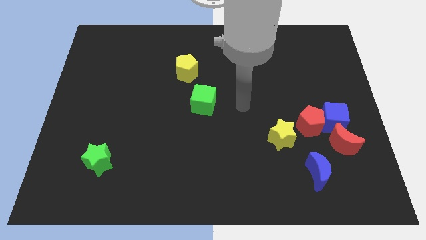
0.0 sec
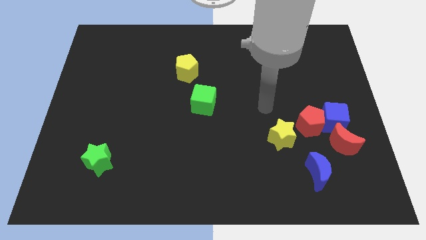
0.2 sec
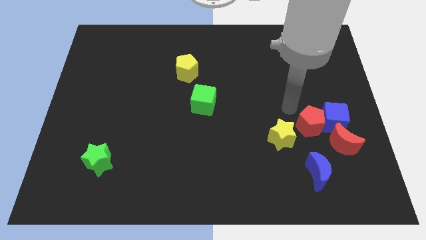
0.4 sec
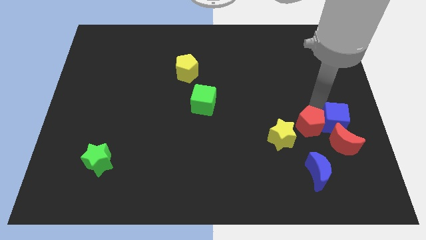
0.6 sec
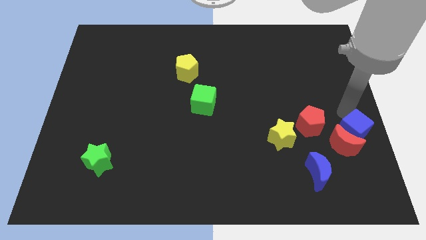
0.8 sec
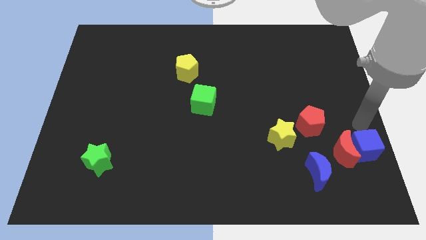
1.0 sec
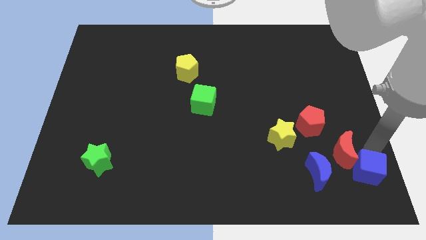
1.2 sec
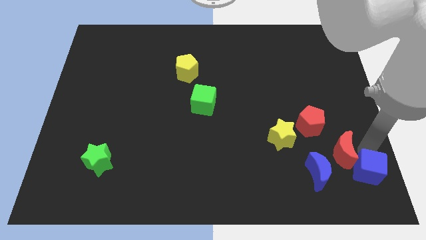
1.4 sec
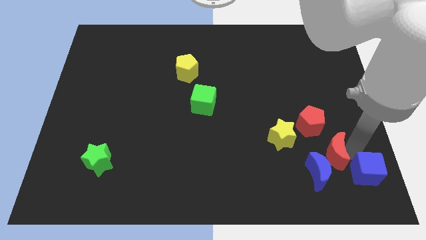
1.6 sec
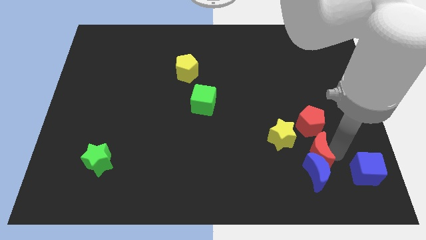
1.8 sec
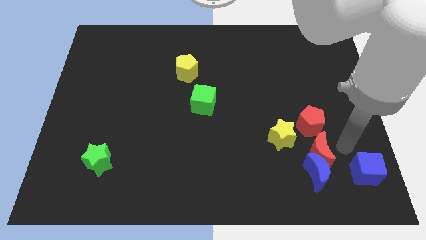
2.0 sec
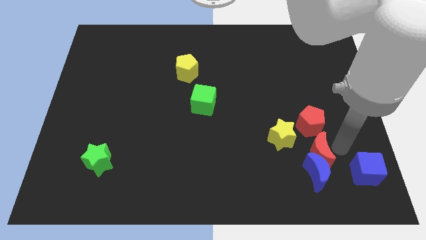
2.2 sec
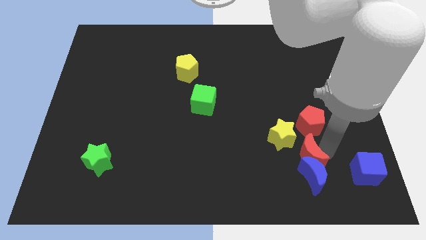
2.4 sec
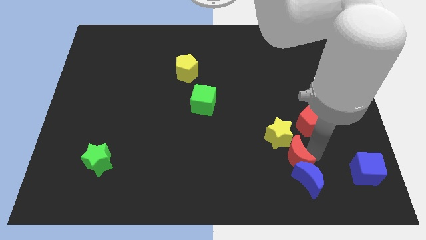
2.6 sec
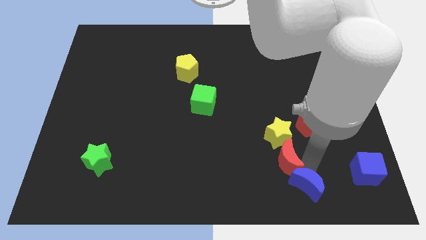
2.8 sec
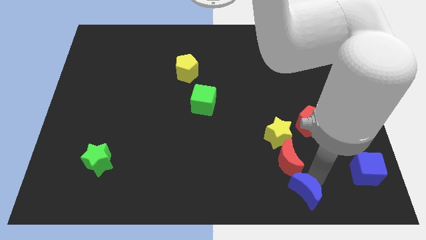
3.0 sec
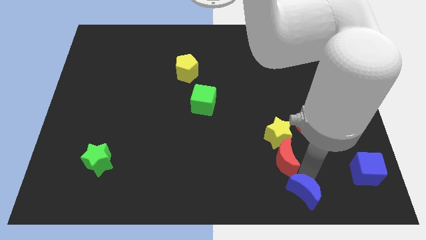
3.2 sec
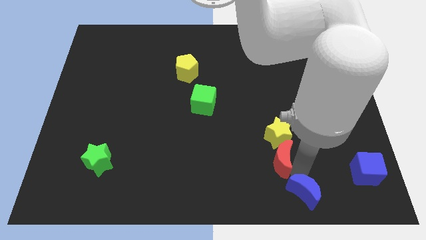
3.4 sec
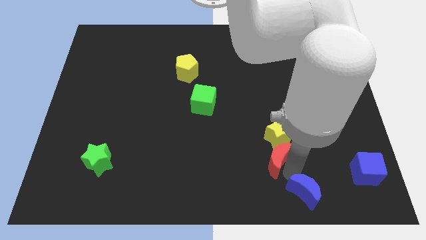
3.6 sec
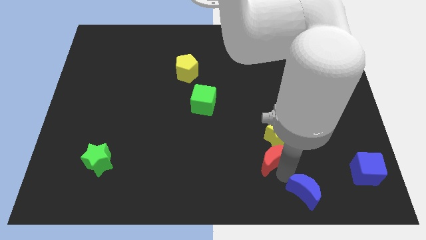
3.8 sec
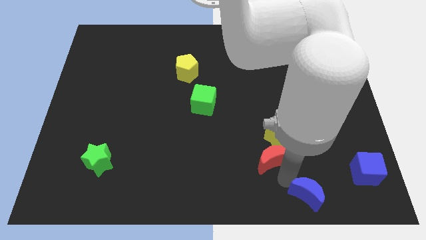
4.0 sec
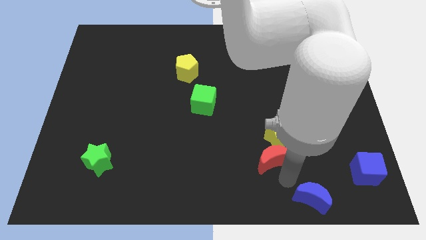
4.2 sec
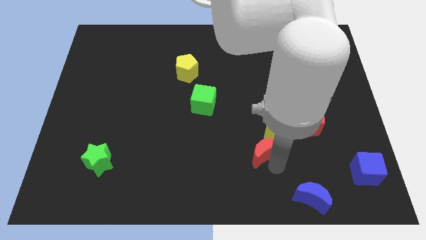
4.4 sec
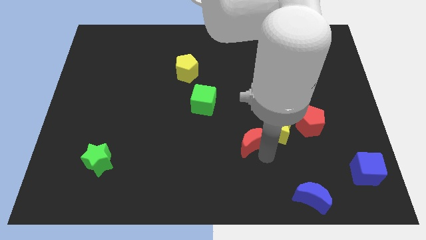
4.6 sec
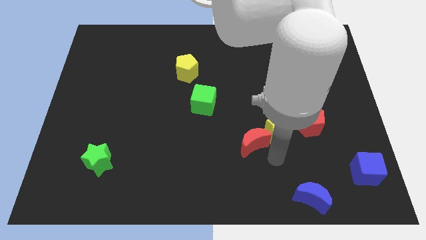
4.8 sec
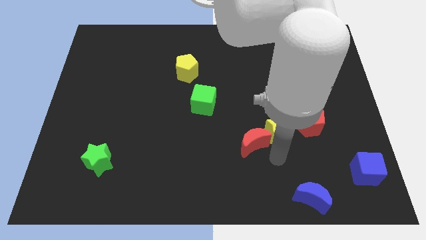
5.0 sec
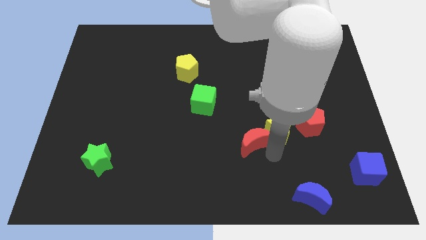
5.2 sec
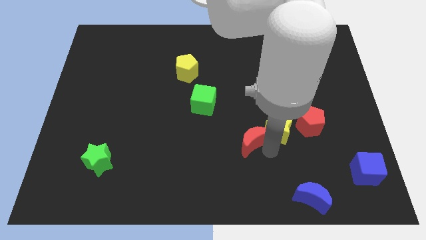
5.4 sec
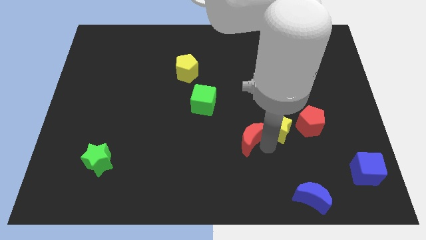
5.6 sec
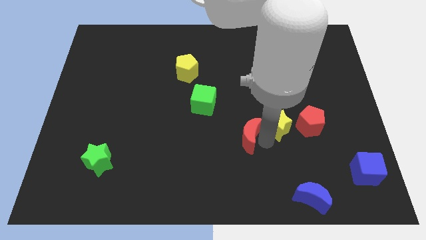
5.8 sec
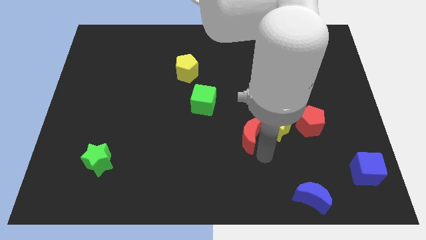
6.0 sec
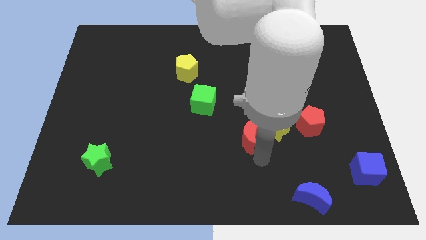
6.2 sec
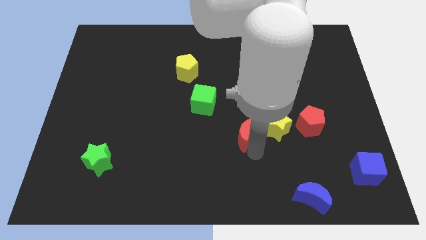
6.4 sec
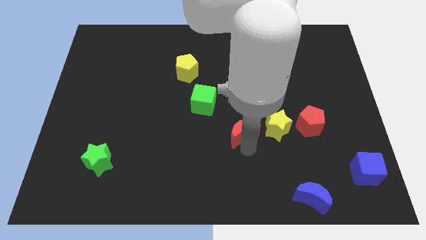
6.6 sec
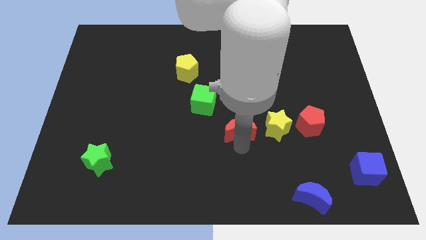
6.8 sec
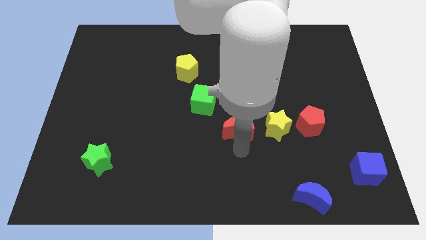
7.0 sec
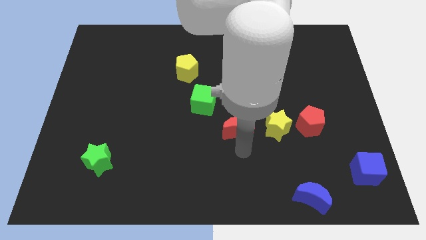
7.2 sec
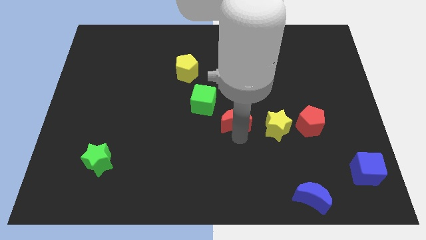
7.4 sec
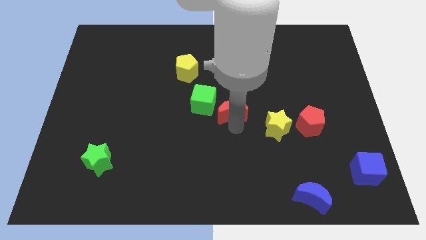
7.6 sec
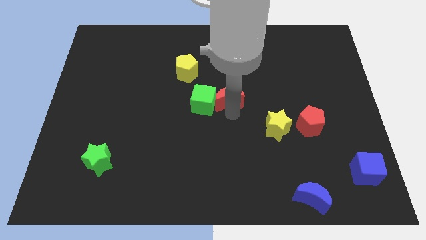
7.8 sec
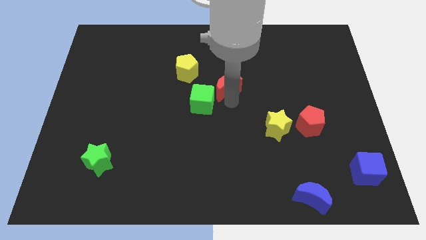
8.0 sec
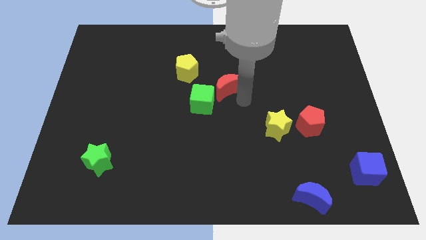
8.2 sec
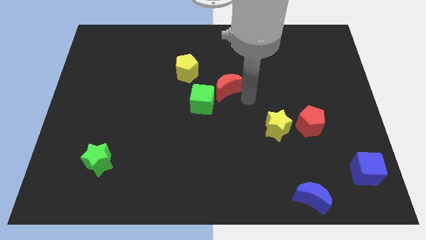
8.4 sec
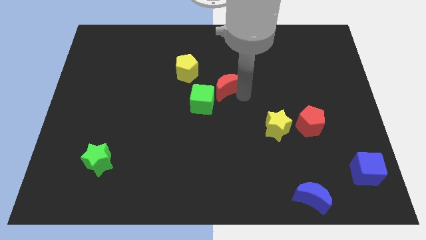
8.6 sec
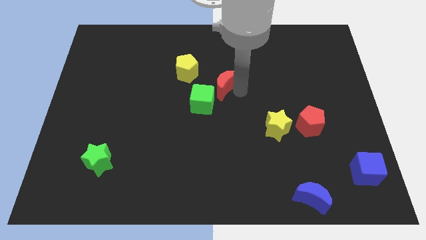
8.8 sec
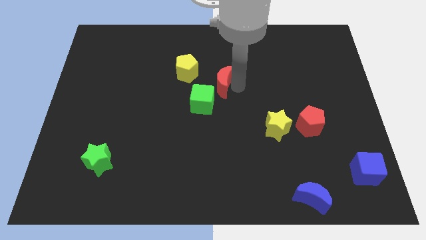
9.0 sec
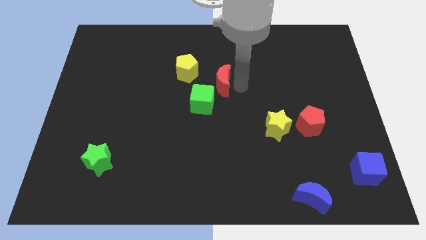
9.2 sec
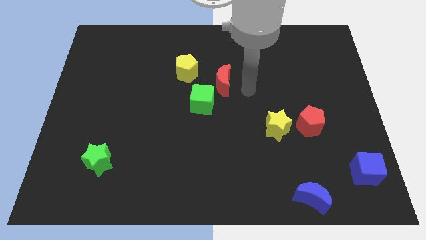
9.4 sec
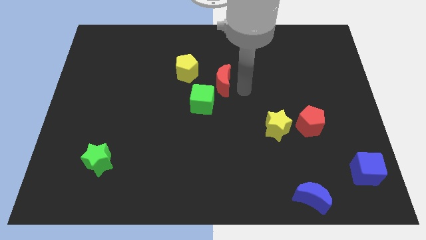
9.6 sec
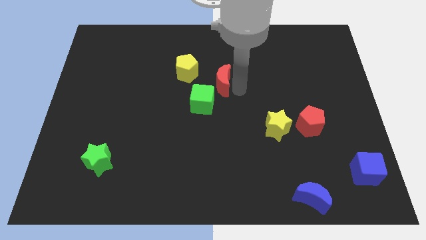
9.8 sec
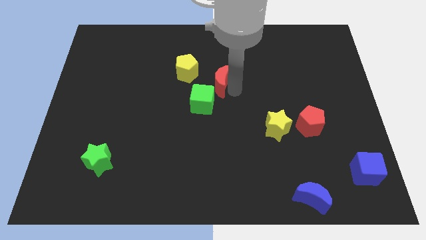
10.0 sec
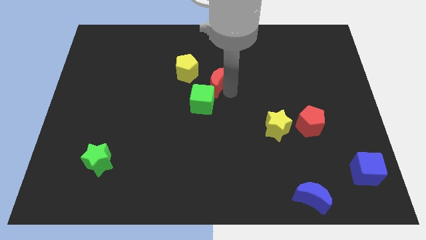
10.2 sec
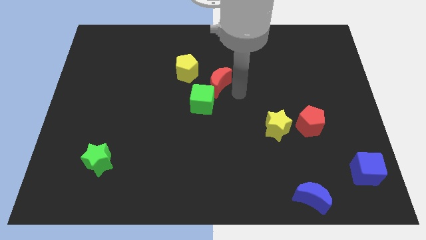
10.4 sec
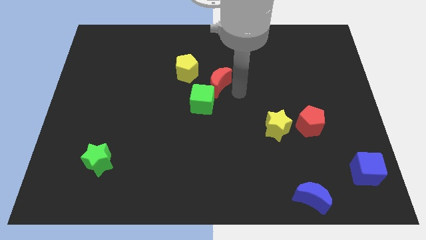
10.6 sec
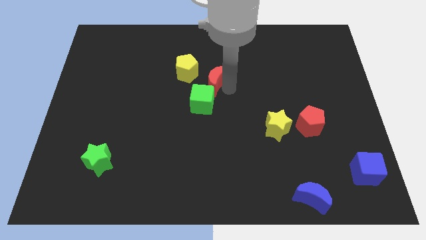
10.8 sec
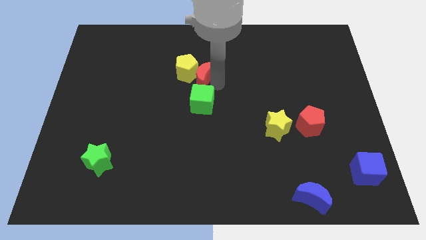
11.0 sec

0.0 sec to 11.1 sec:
put the red moon next to the yellow pentagon
